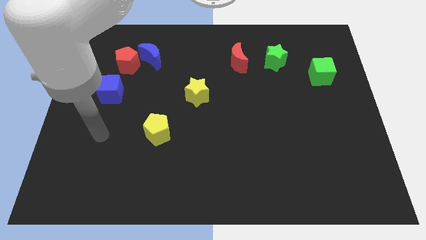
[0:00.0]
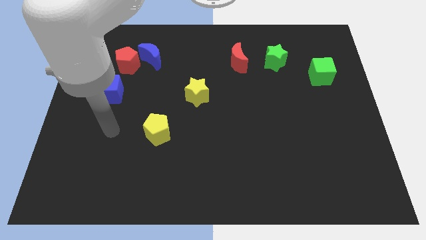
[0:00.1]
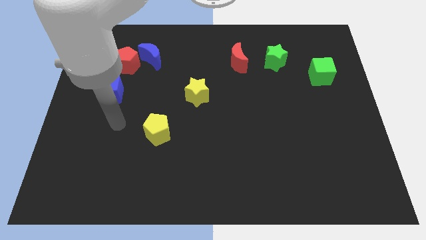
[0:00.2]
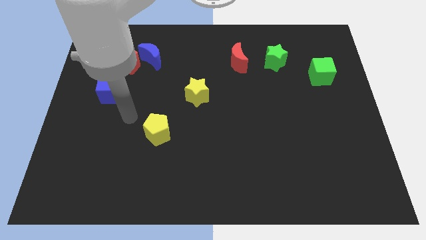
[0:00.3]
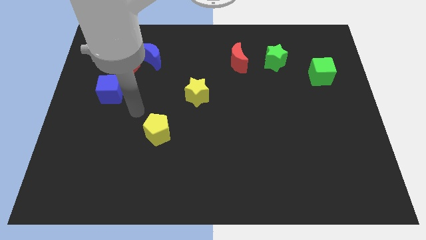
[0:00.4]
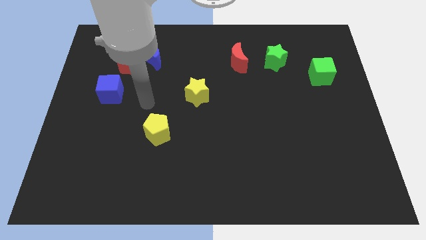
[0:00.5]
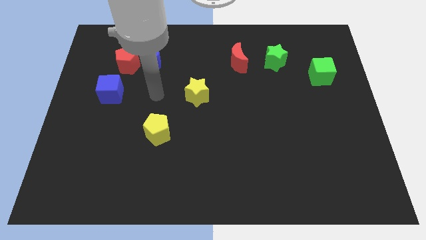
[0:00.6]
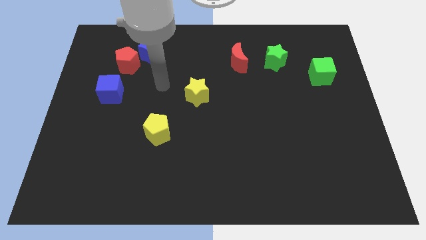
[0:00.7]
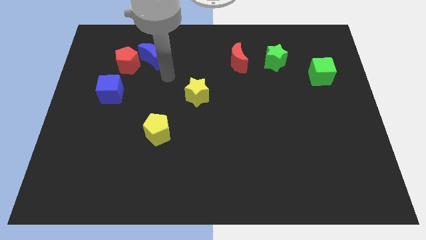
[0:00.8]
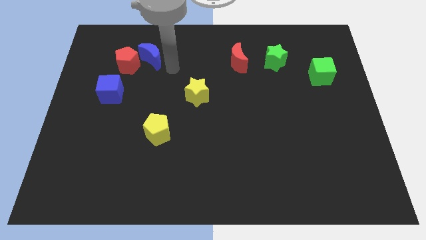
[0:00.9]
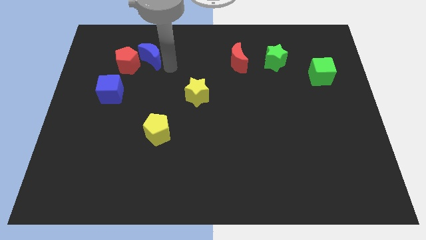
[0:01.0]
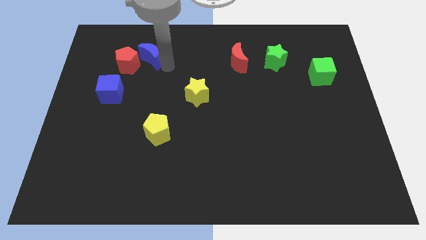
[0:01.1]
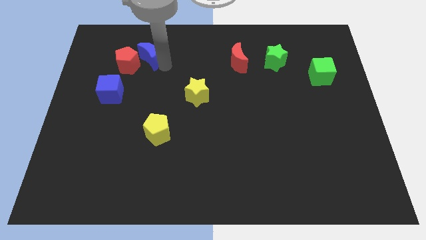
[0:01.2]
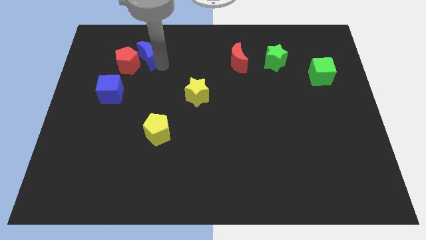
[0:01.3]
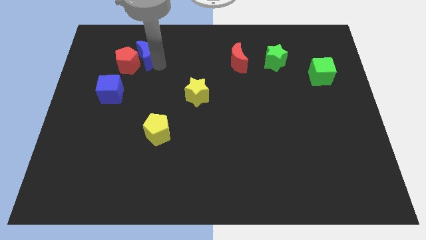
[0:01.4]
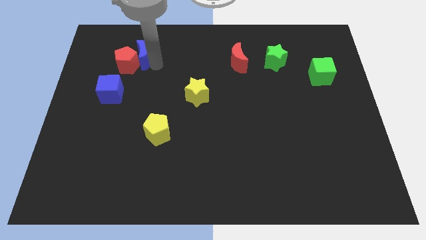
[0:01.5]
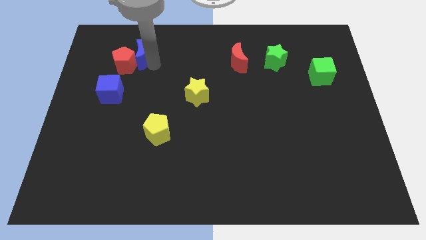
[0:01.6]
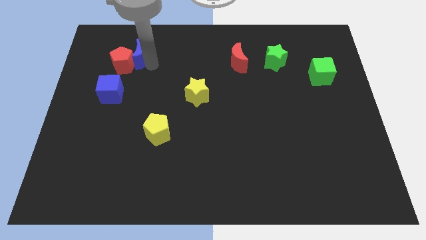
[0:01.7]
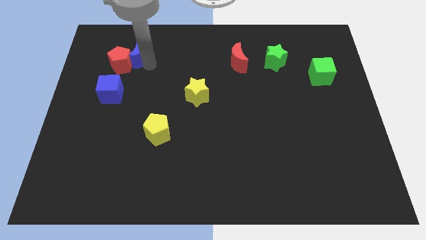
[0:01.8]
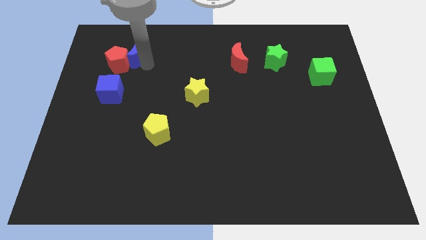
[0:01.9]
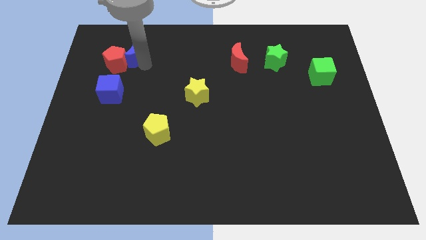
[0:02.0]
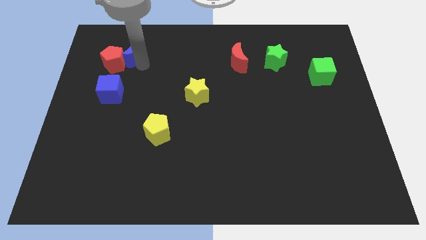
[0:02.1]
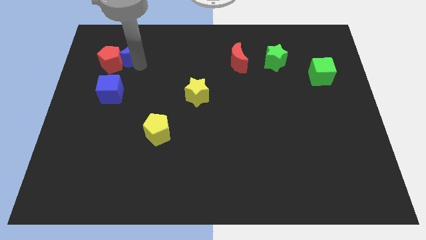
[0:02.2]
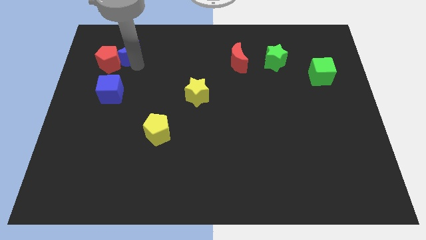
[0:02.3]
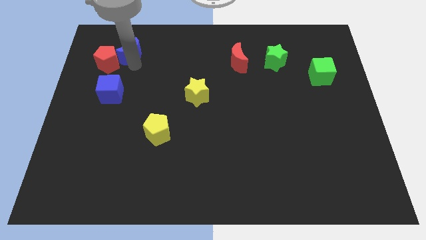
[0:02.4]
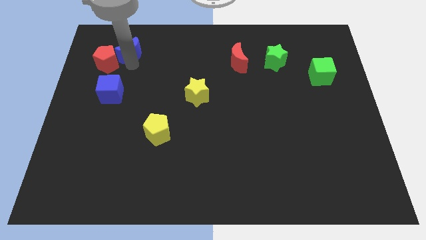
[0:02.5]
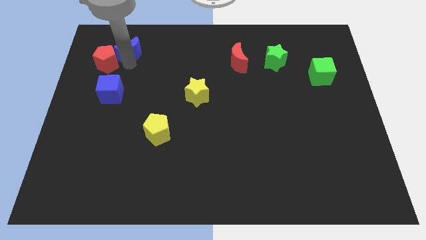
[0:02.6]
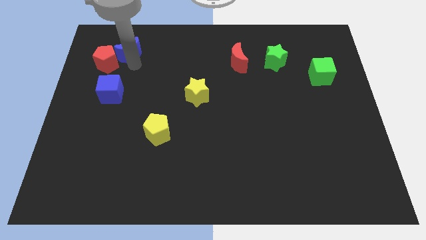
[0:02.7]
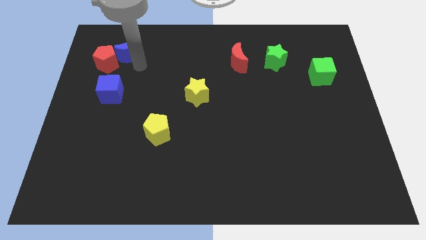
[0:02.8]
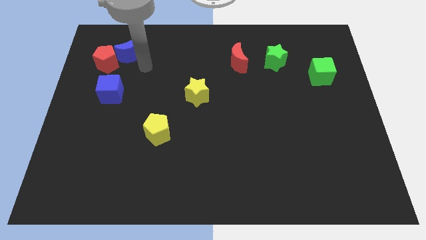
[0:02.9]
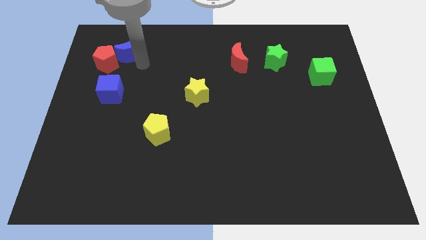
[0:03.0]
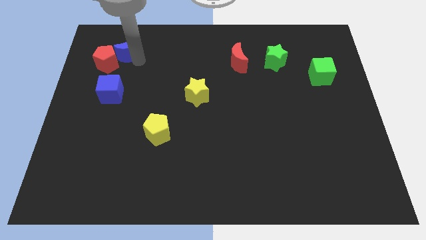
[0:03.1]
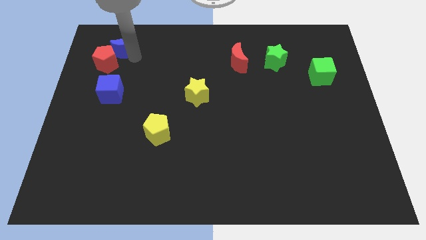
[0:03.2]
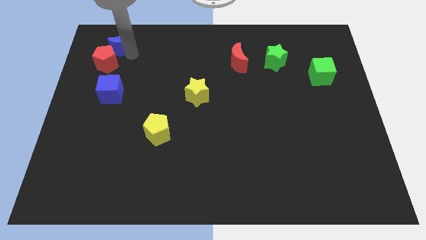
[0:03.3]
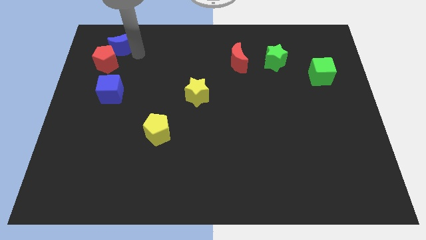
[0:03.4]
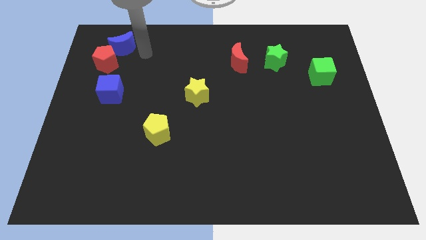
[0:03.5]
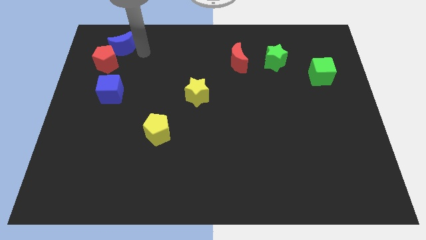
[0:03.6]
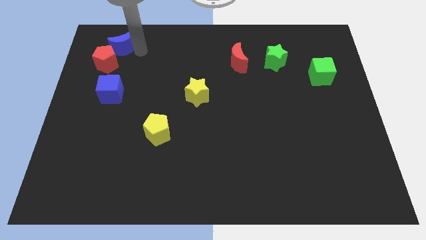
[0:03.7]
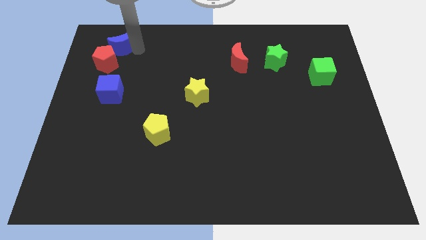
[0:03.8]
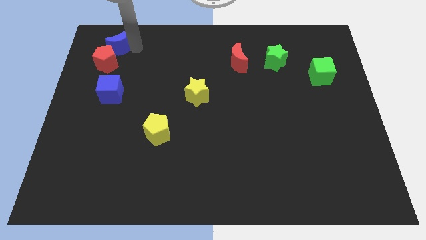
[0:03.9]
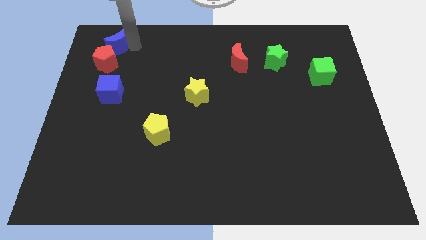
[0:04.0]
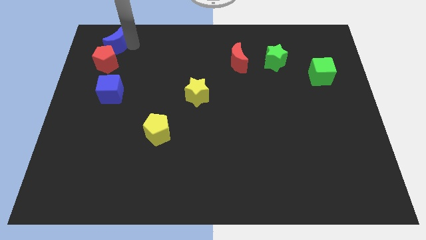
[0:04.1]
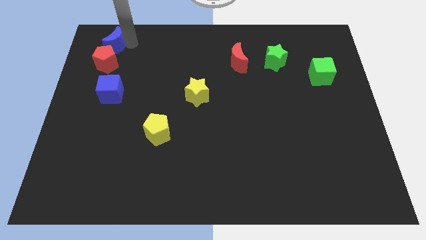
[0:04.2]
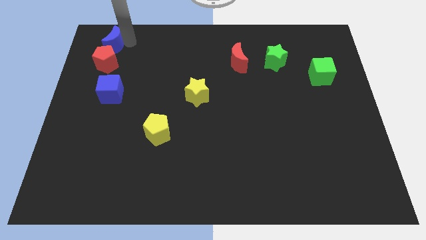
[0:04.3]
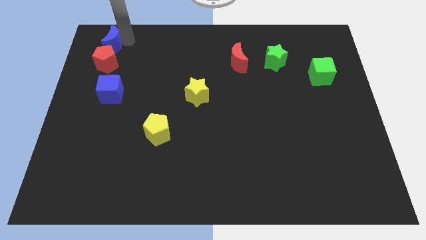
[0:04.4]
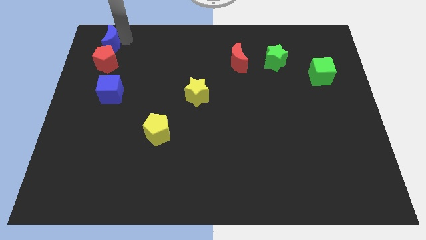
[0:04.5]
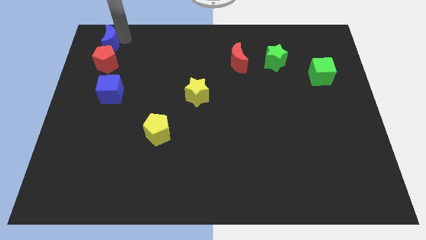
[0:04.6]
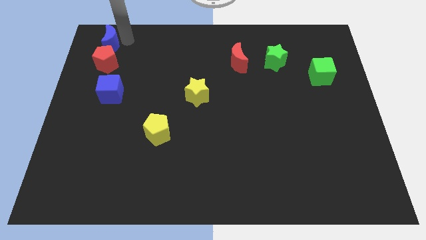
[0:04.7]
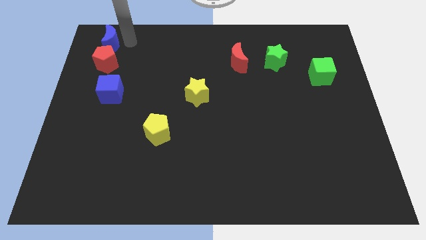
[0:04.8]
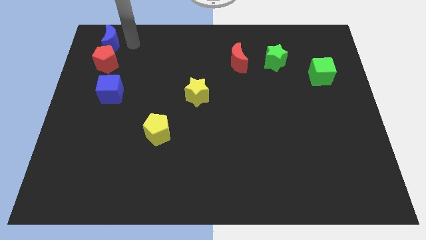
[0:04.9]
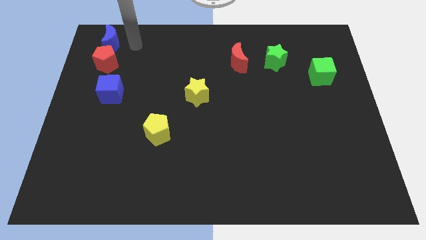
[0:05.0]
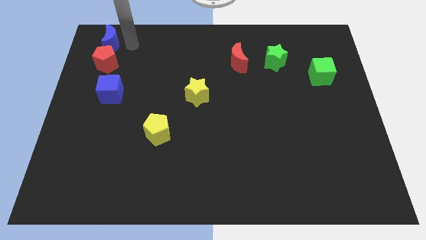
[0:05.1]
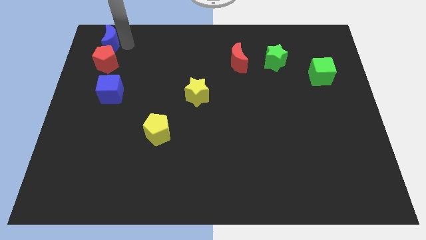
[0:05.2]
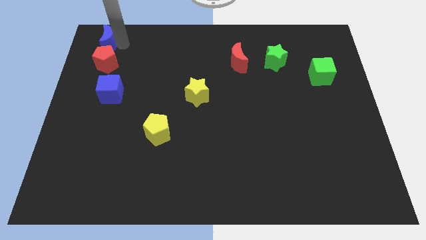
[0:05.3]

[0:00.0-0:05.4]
slide the blue moon to the upper left corner

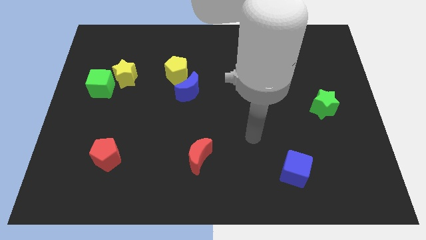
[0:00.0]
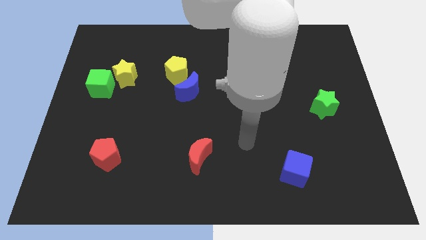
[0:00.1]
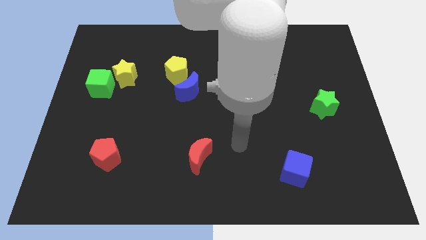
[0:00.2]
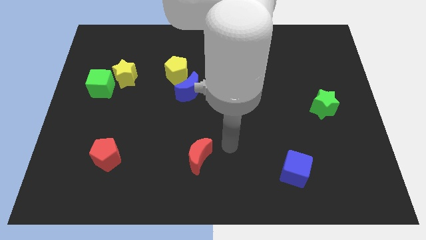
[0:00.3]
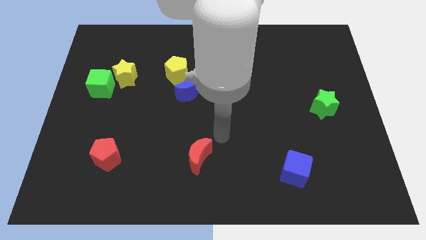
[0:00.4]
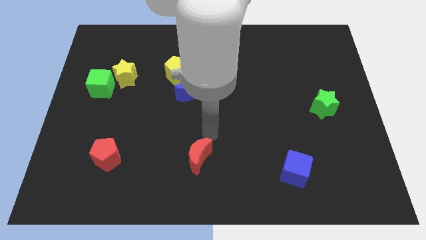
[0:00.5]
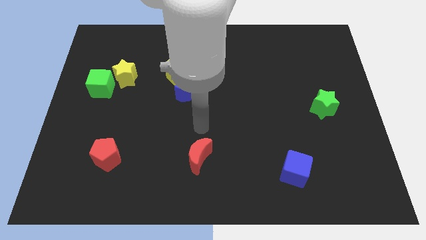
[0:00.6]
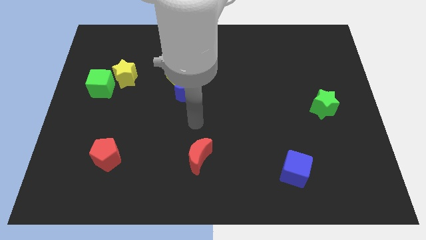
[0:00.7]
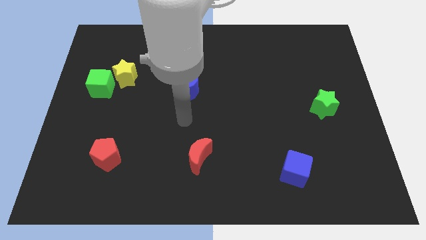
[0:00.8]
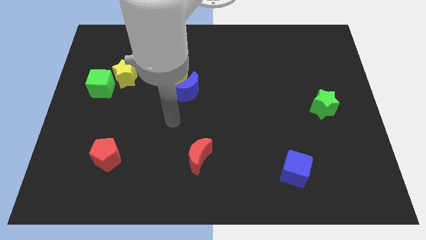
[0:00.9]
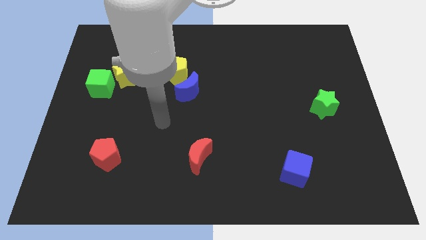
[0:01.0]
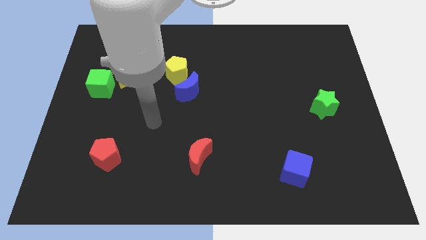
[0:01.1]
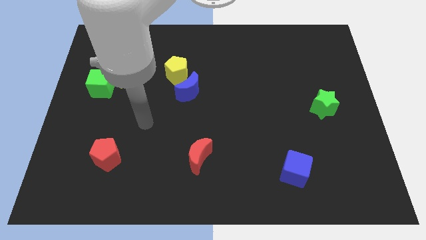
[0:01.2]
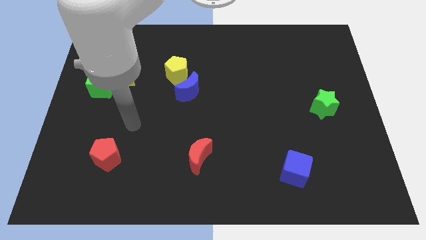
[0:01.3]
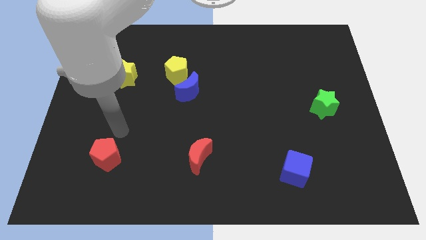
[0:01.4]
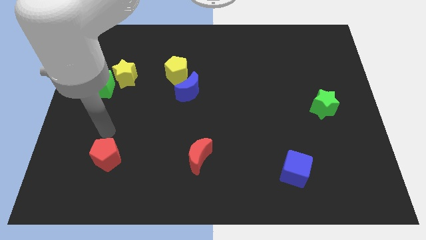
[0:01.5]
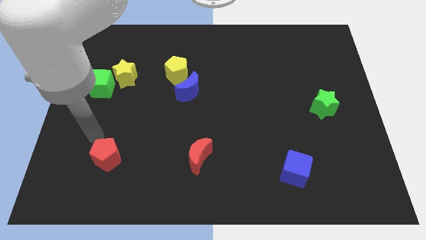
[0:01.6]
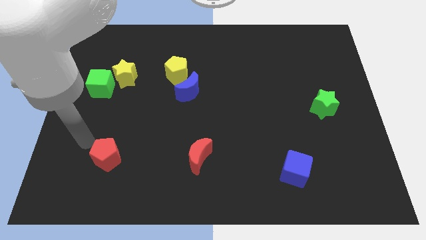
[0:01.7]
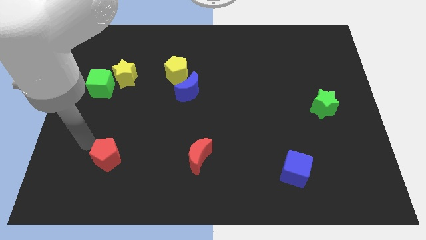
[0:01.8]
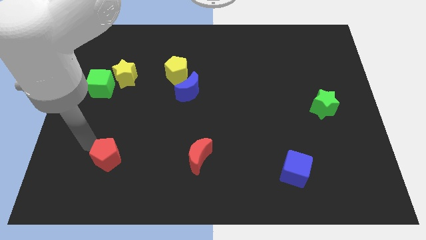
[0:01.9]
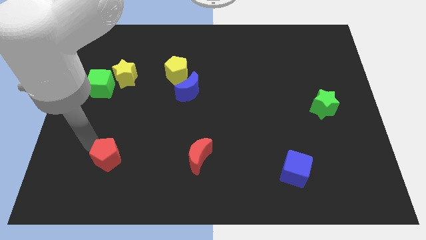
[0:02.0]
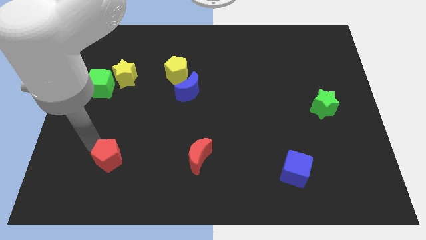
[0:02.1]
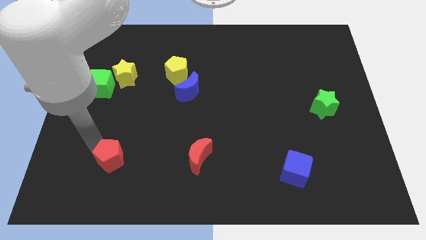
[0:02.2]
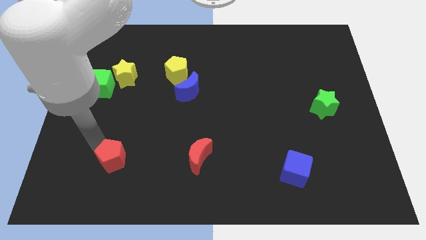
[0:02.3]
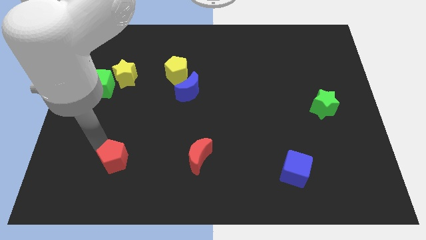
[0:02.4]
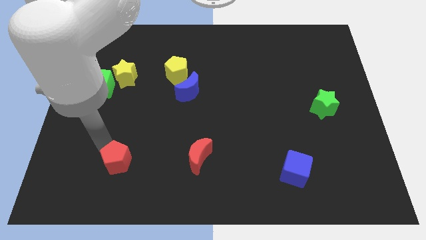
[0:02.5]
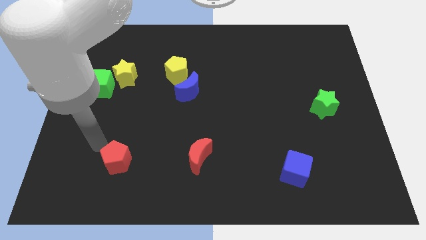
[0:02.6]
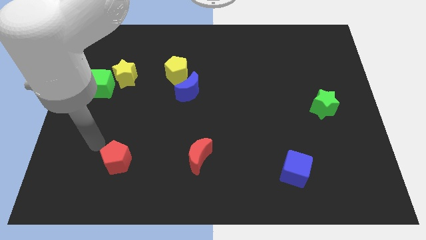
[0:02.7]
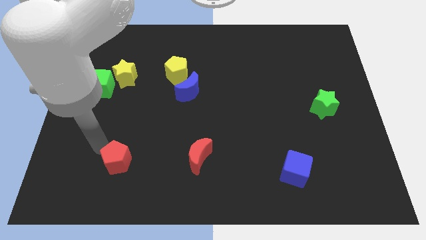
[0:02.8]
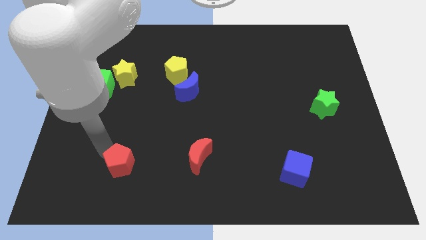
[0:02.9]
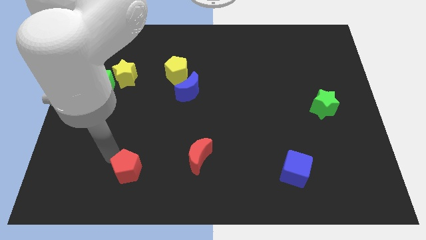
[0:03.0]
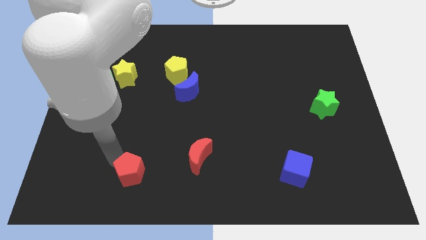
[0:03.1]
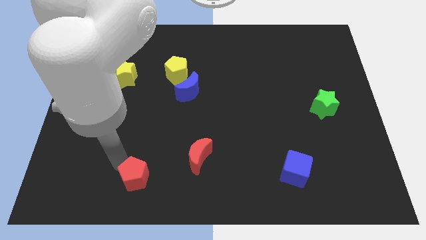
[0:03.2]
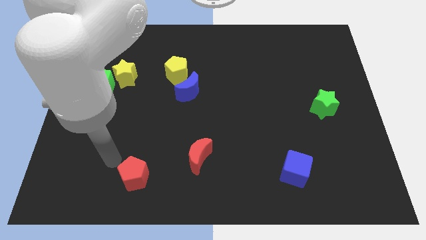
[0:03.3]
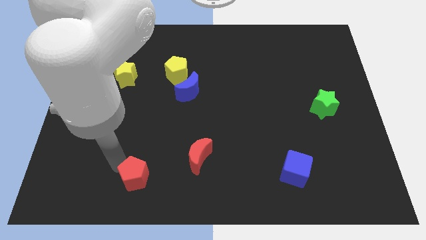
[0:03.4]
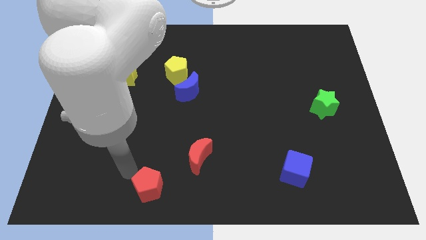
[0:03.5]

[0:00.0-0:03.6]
move the red pentagon to the bottom
